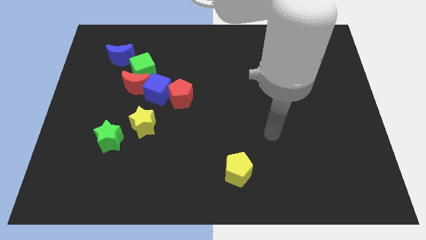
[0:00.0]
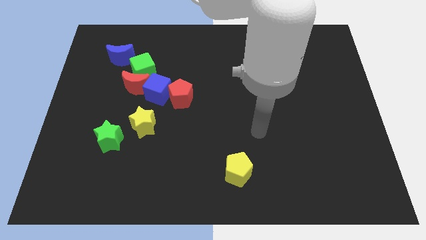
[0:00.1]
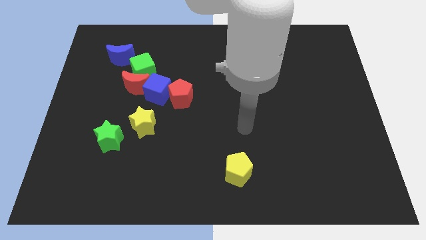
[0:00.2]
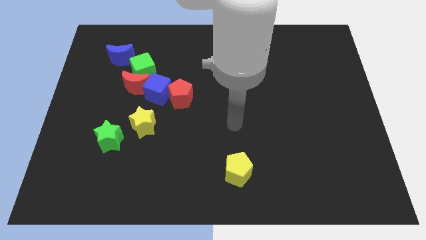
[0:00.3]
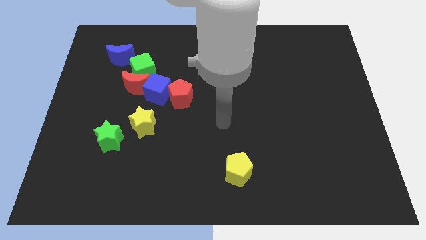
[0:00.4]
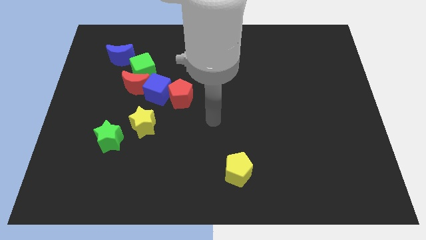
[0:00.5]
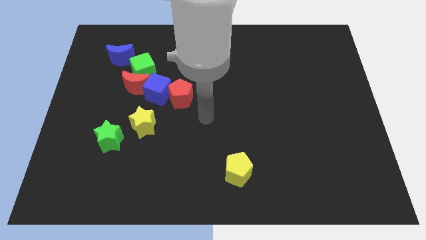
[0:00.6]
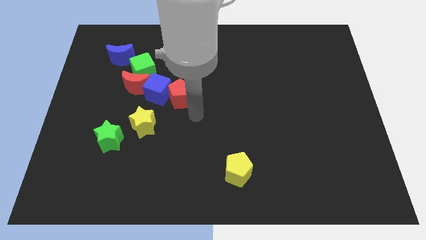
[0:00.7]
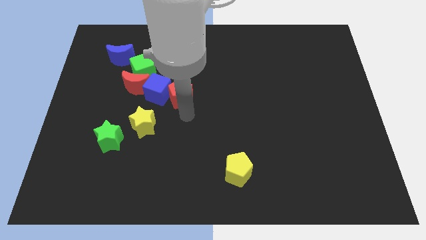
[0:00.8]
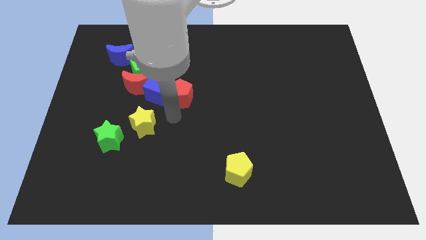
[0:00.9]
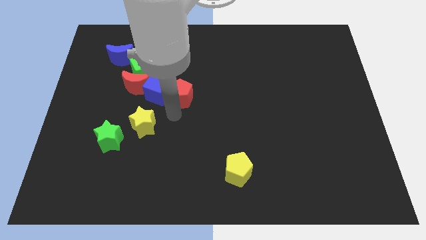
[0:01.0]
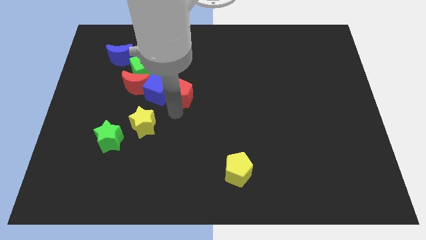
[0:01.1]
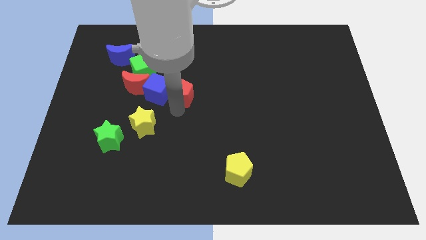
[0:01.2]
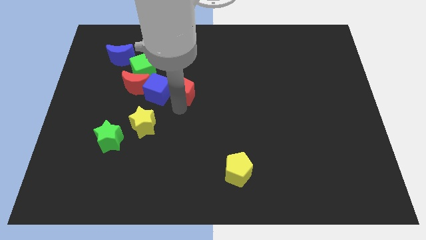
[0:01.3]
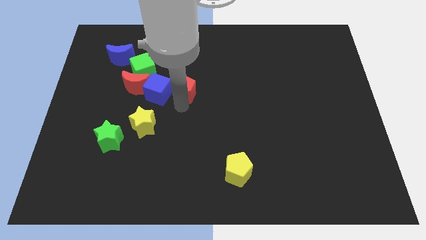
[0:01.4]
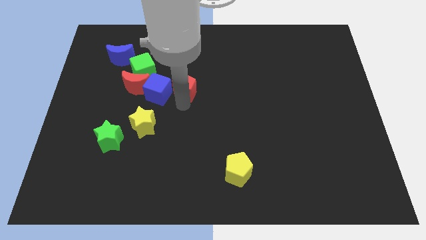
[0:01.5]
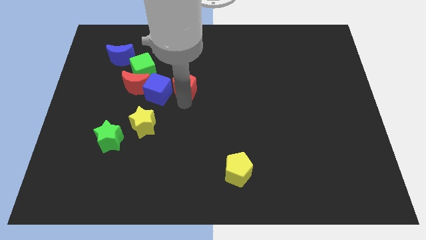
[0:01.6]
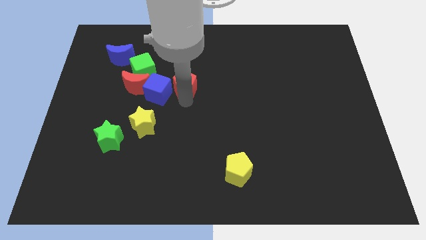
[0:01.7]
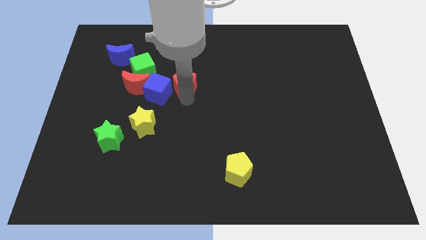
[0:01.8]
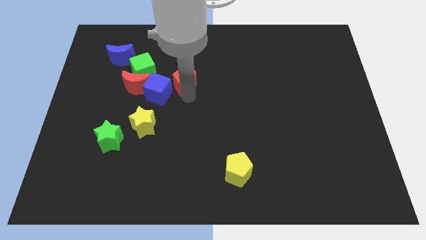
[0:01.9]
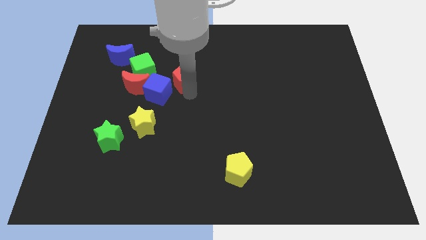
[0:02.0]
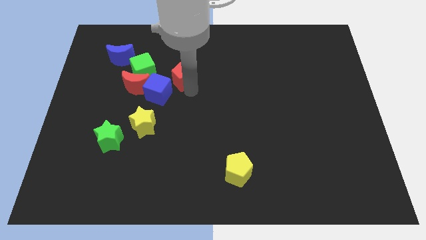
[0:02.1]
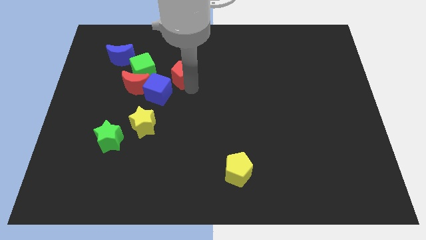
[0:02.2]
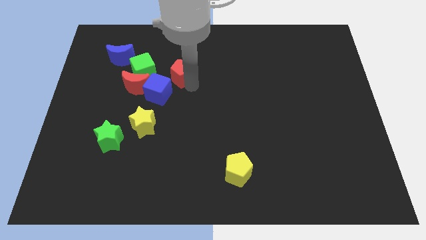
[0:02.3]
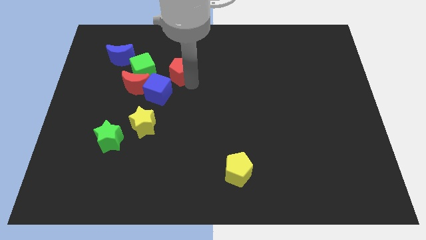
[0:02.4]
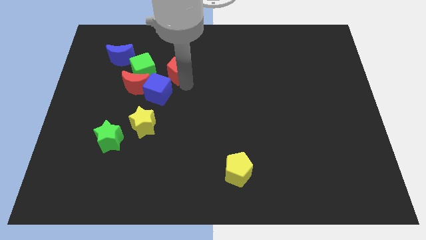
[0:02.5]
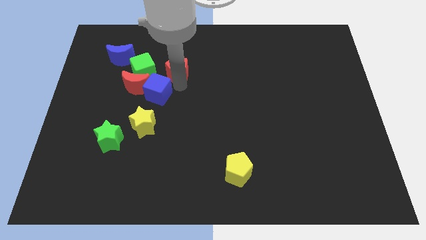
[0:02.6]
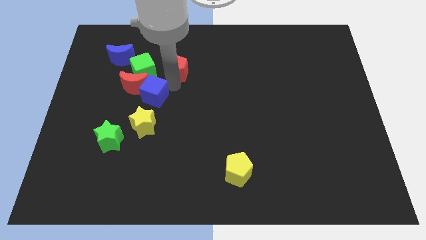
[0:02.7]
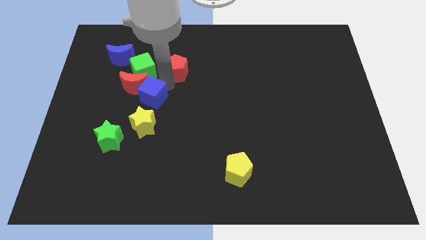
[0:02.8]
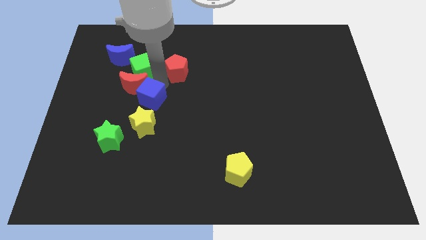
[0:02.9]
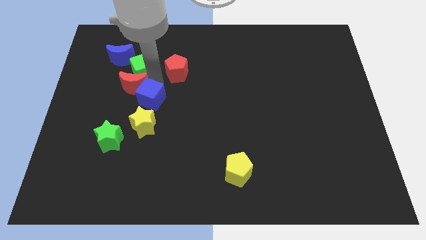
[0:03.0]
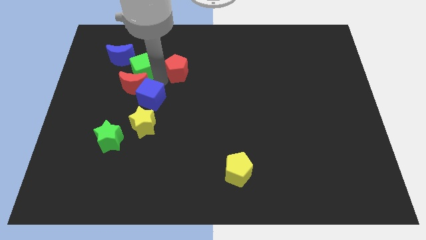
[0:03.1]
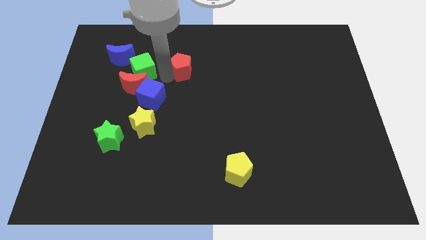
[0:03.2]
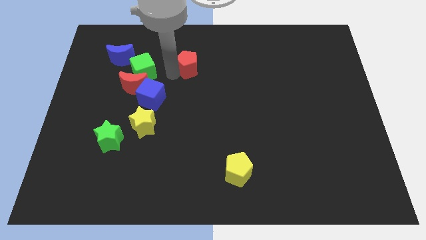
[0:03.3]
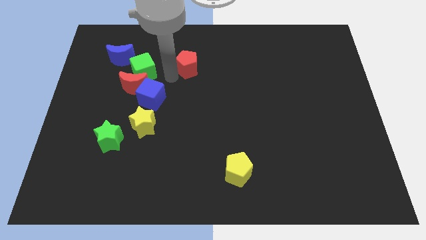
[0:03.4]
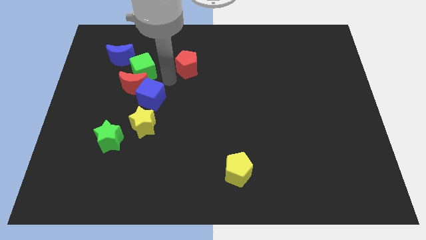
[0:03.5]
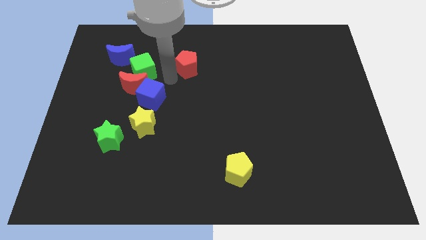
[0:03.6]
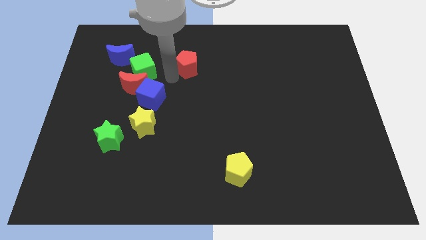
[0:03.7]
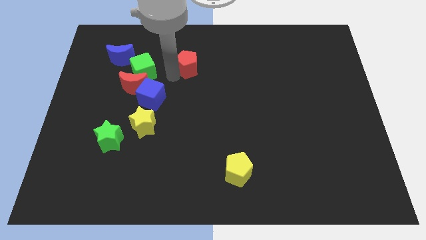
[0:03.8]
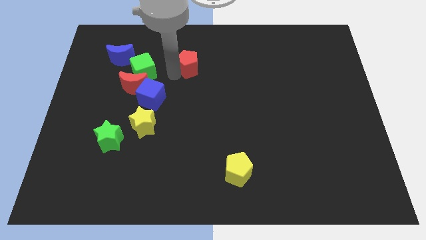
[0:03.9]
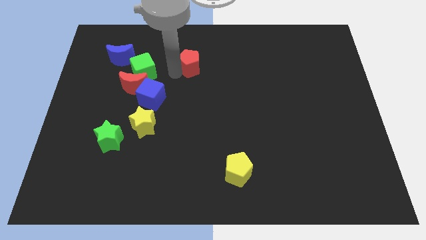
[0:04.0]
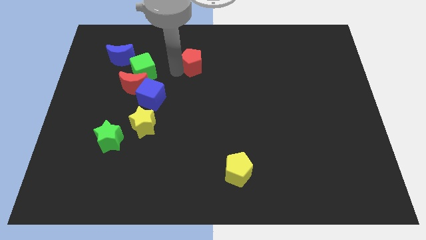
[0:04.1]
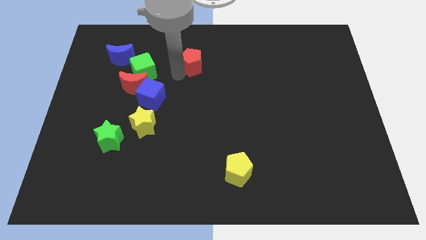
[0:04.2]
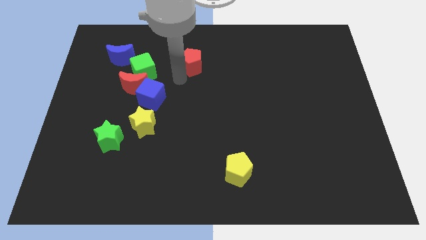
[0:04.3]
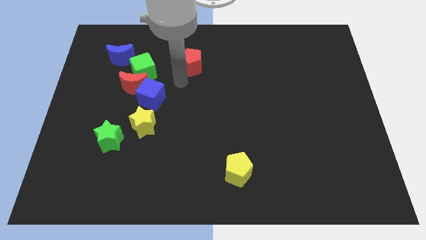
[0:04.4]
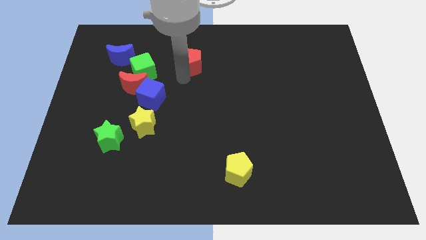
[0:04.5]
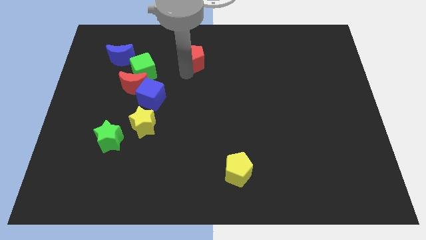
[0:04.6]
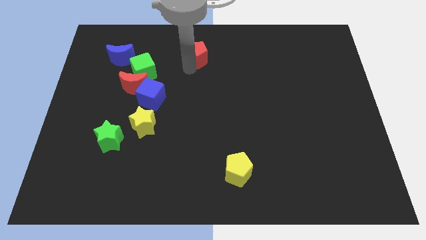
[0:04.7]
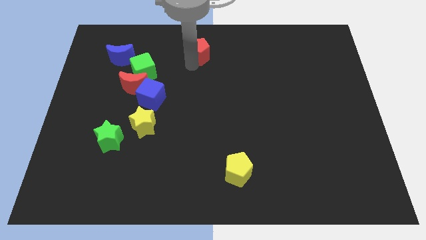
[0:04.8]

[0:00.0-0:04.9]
move the red pentagon to the top

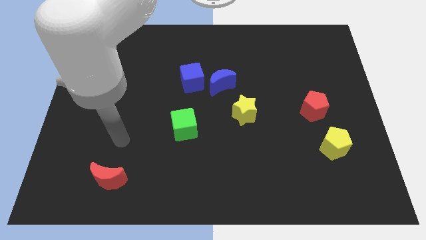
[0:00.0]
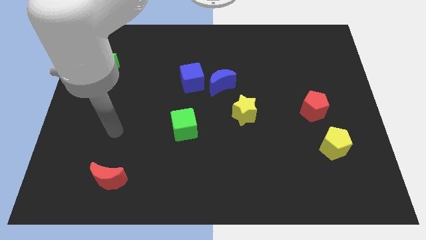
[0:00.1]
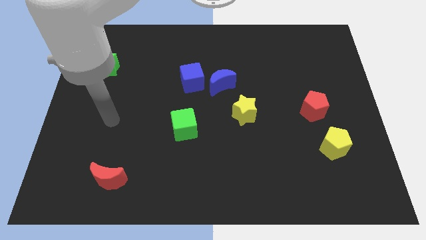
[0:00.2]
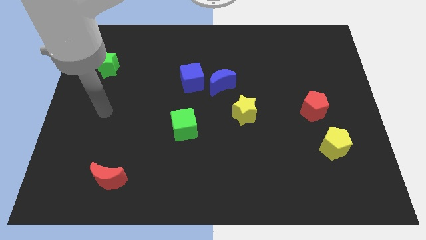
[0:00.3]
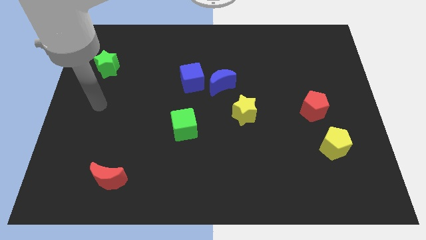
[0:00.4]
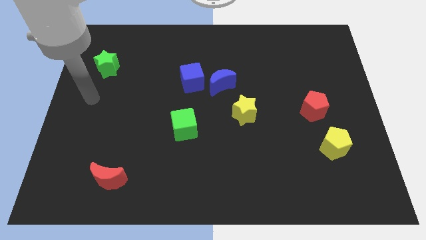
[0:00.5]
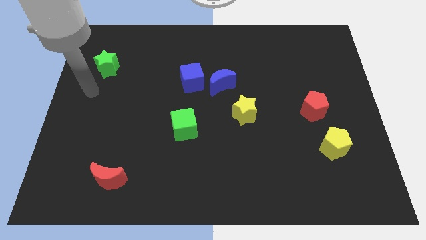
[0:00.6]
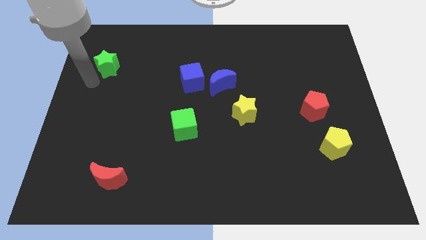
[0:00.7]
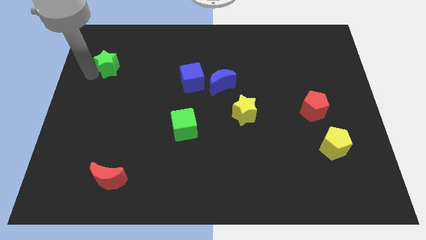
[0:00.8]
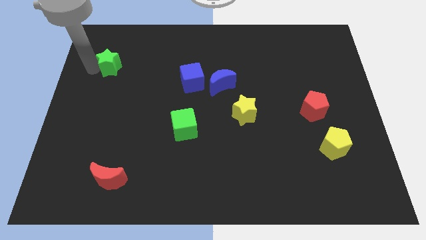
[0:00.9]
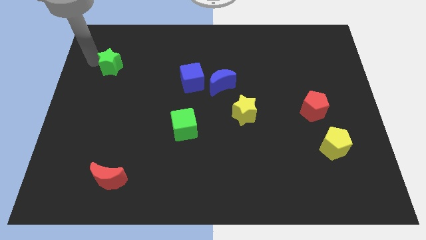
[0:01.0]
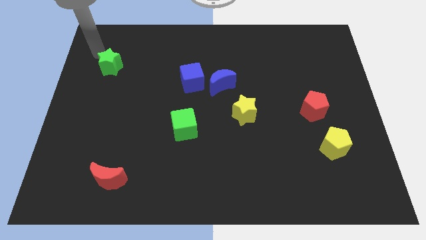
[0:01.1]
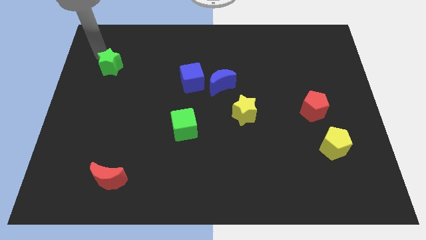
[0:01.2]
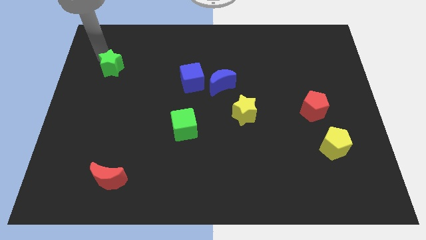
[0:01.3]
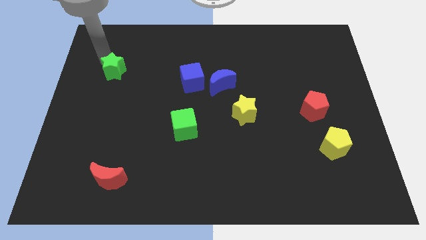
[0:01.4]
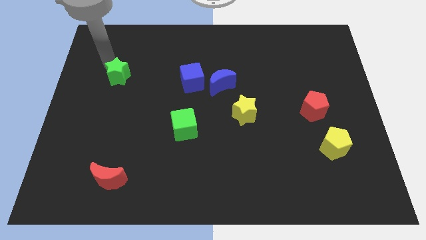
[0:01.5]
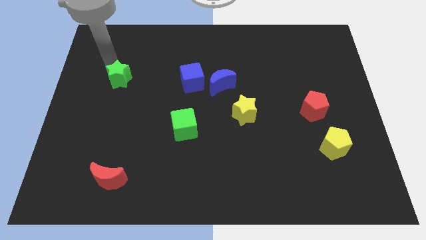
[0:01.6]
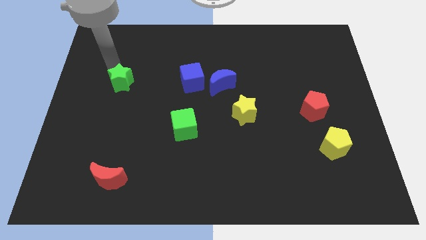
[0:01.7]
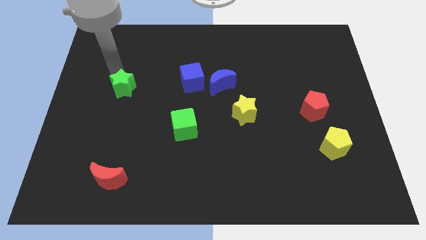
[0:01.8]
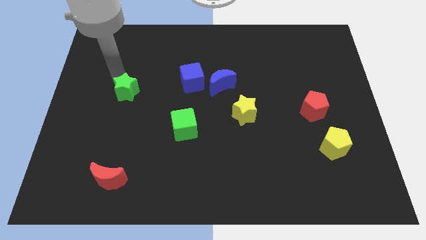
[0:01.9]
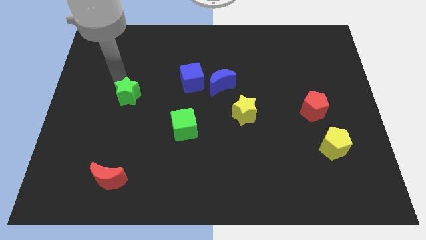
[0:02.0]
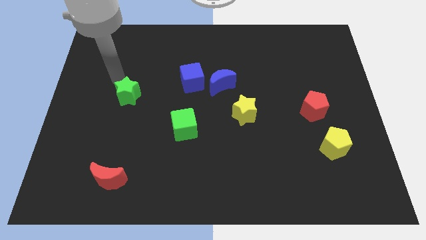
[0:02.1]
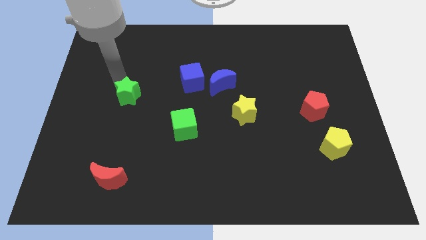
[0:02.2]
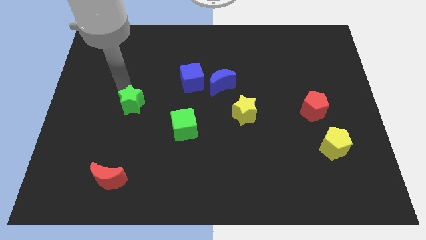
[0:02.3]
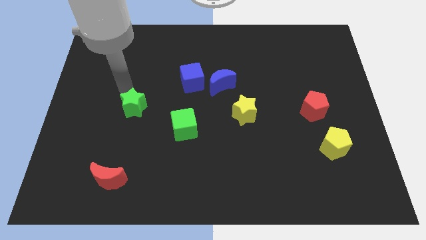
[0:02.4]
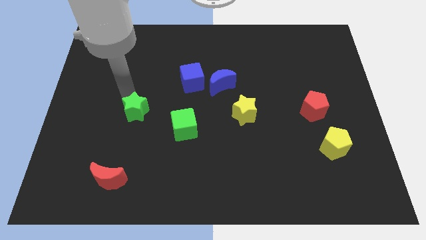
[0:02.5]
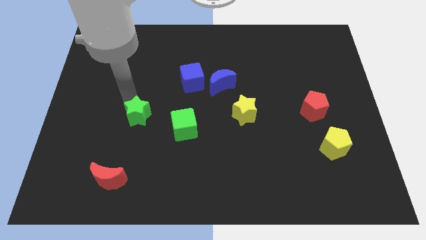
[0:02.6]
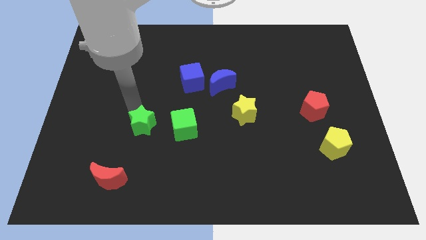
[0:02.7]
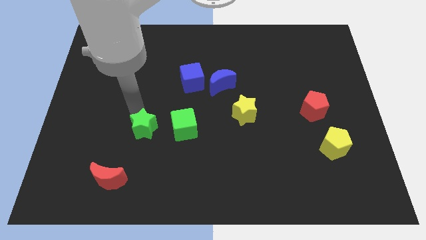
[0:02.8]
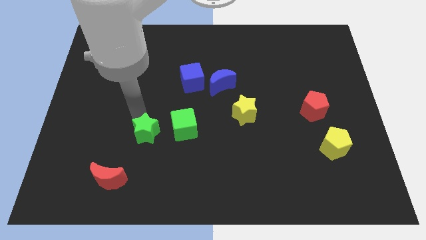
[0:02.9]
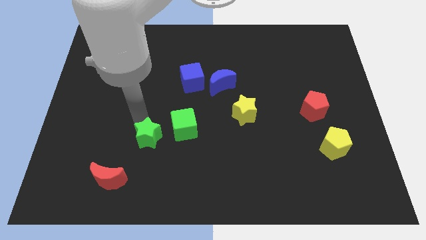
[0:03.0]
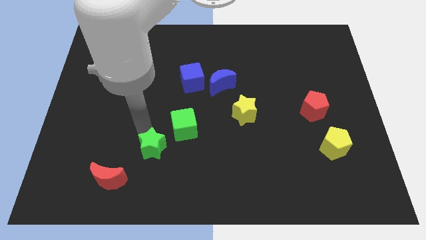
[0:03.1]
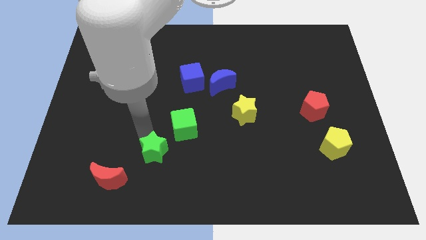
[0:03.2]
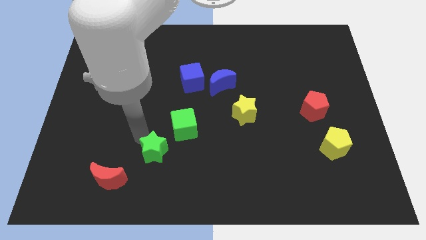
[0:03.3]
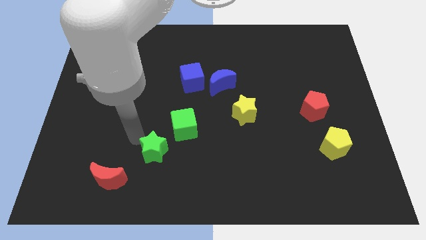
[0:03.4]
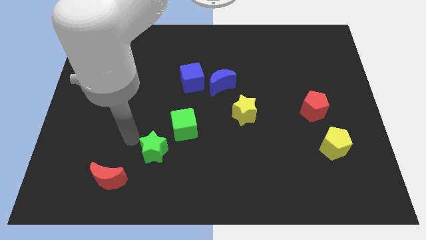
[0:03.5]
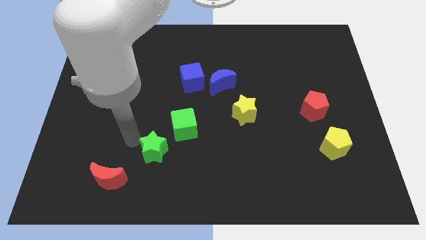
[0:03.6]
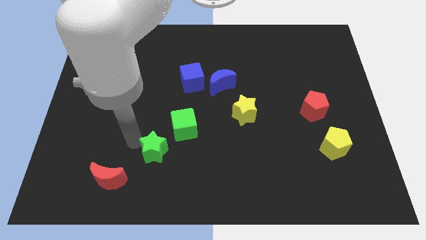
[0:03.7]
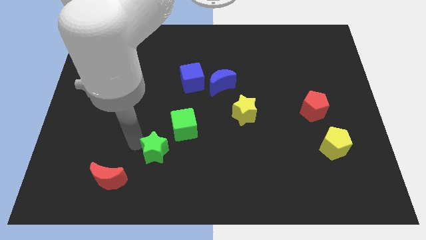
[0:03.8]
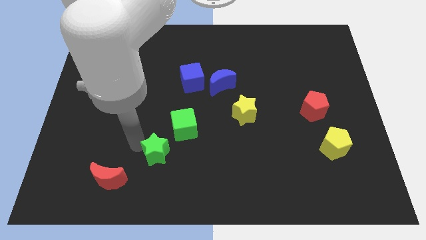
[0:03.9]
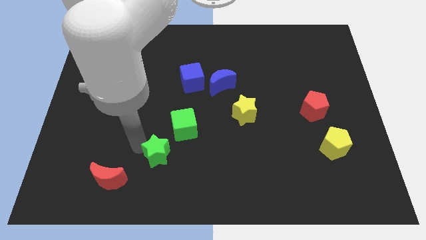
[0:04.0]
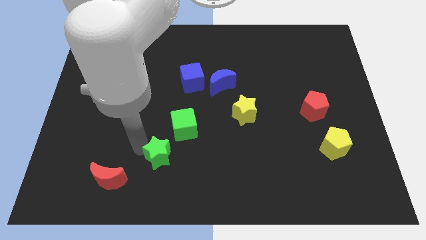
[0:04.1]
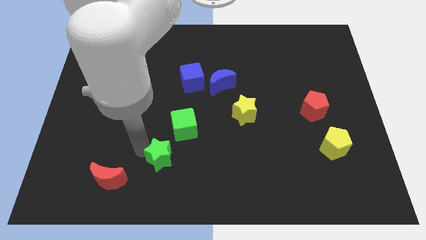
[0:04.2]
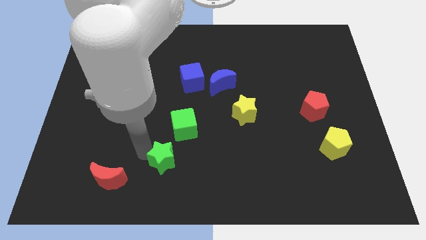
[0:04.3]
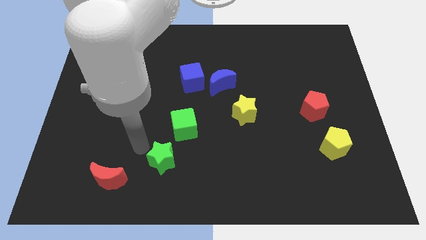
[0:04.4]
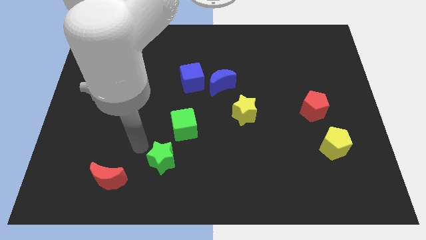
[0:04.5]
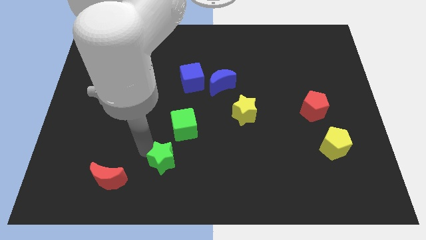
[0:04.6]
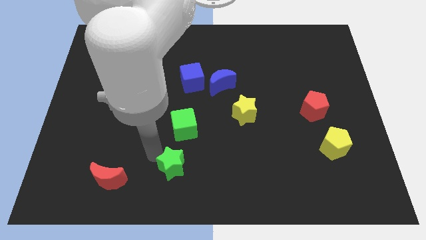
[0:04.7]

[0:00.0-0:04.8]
put the green star to the bottom
